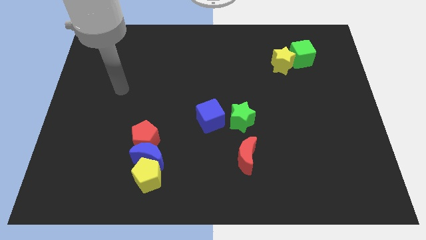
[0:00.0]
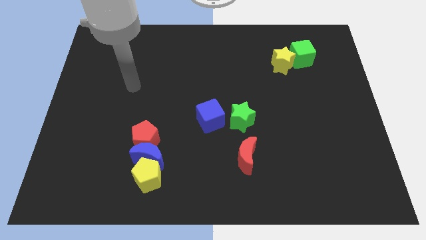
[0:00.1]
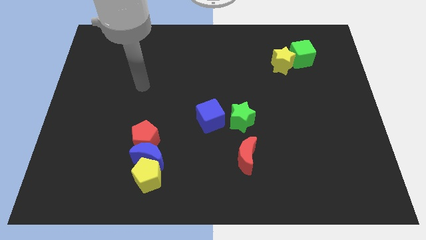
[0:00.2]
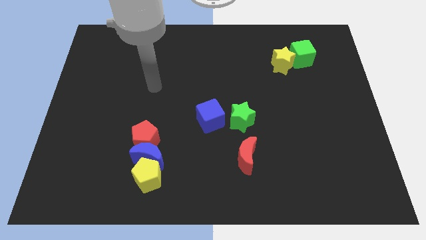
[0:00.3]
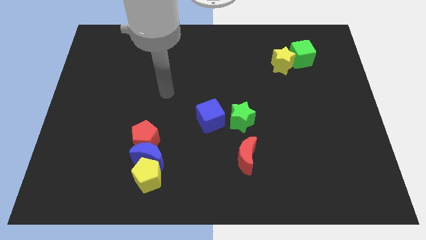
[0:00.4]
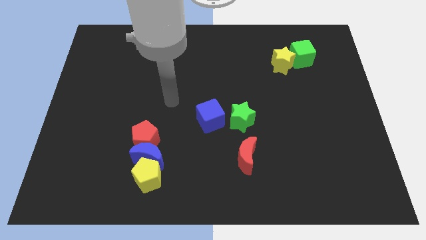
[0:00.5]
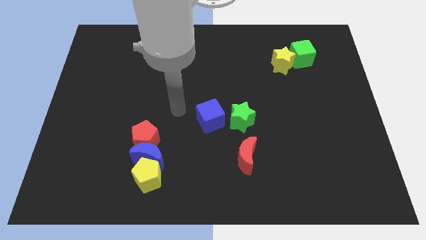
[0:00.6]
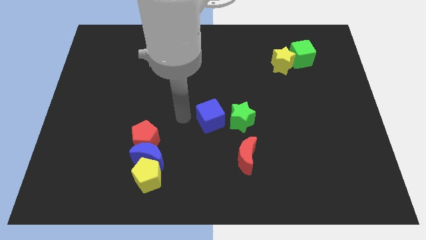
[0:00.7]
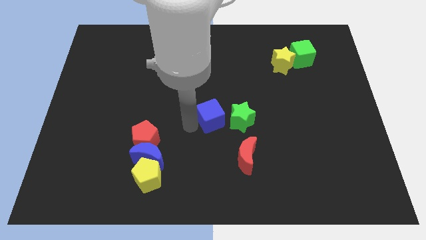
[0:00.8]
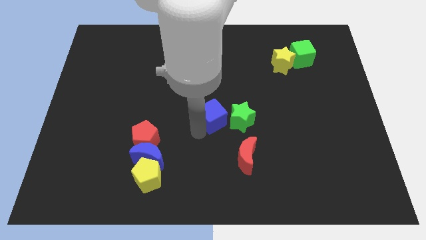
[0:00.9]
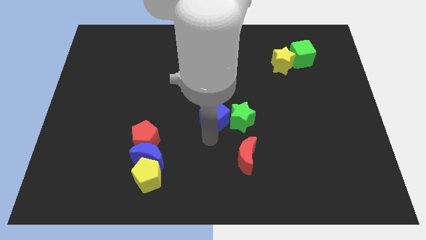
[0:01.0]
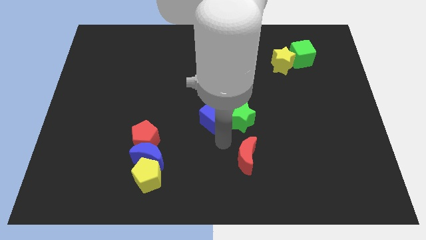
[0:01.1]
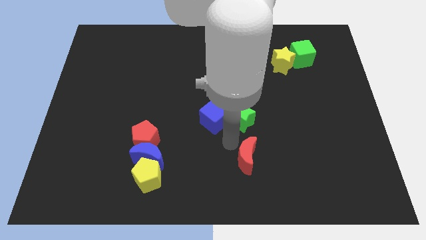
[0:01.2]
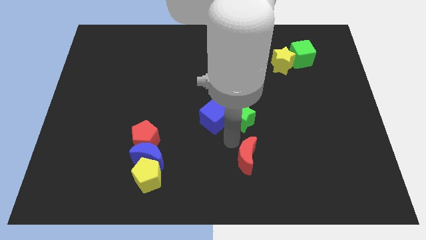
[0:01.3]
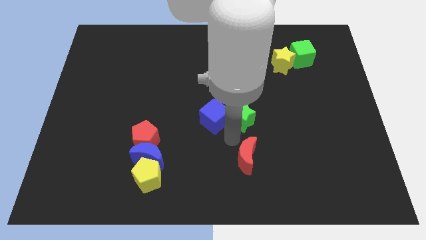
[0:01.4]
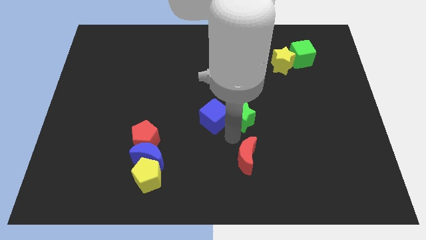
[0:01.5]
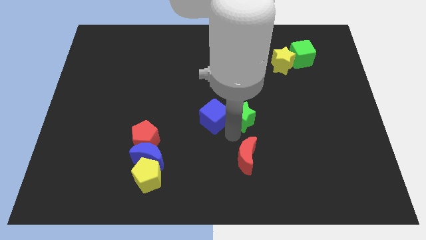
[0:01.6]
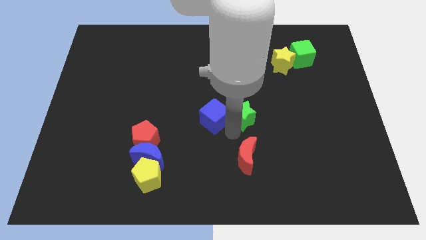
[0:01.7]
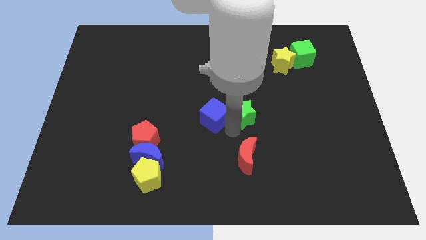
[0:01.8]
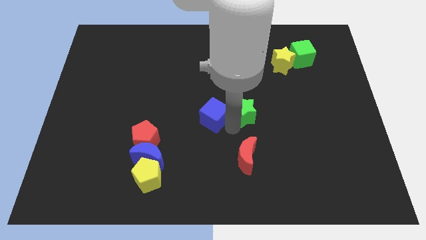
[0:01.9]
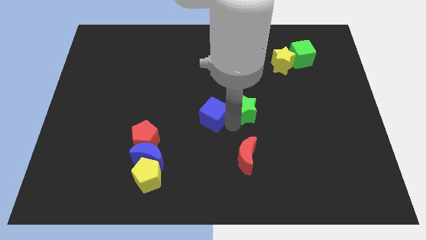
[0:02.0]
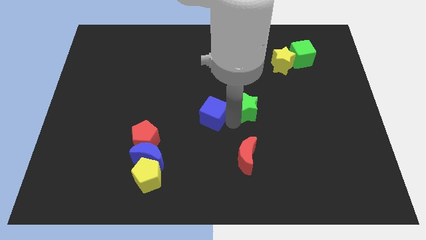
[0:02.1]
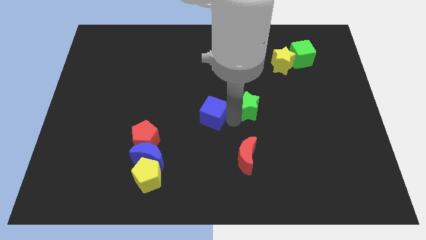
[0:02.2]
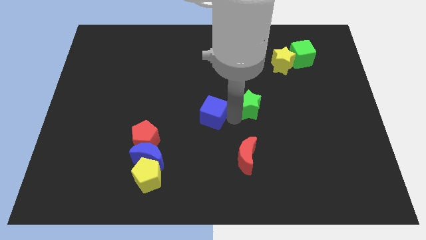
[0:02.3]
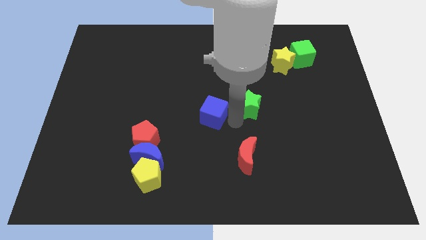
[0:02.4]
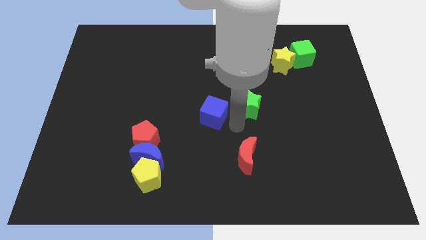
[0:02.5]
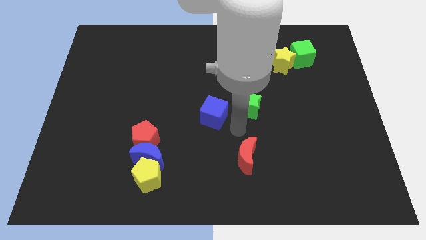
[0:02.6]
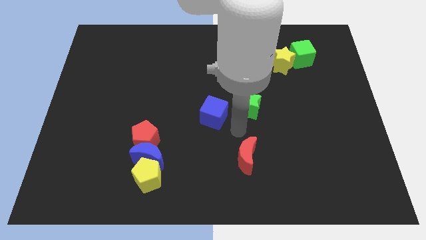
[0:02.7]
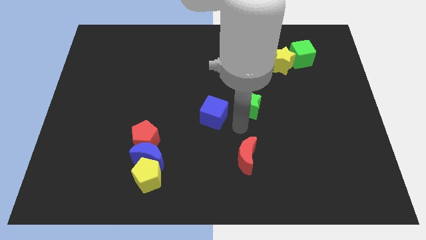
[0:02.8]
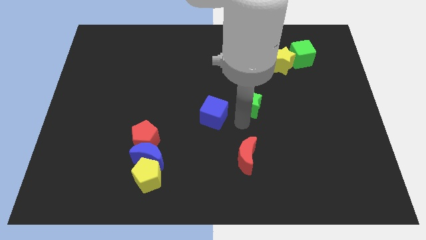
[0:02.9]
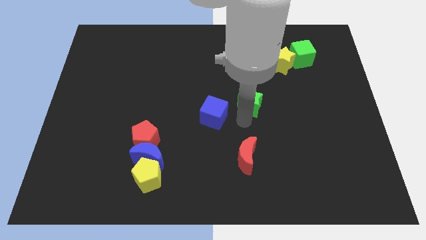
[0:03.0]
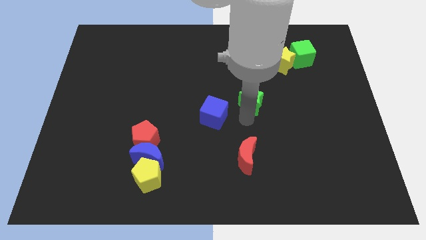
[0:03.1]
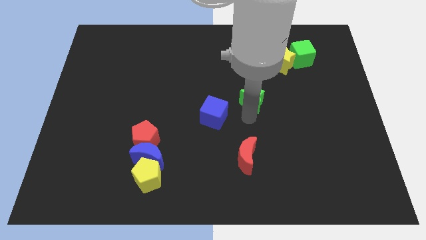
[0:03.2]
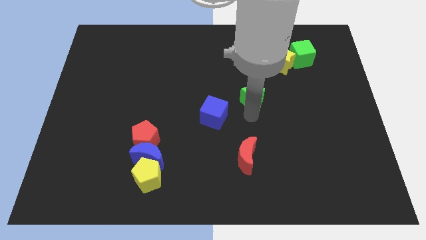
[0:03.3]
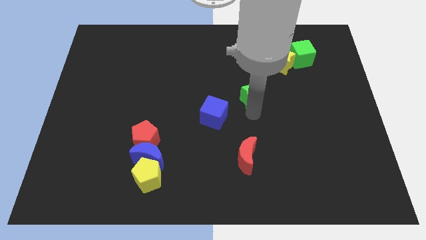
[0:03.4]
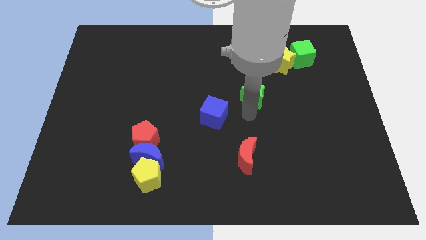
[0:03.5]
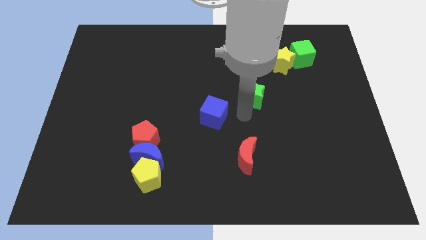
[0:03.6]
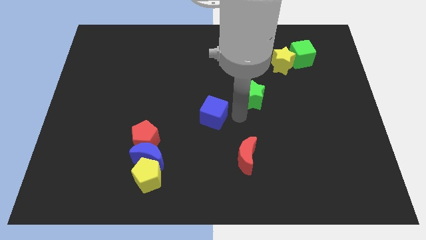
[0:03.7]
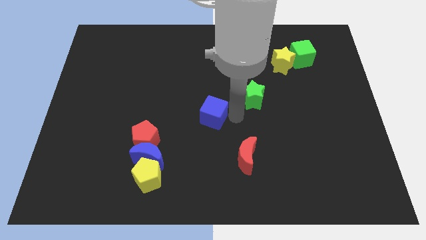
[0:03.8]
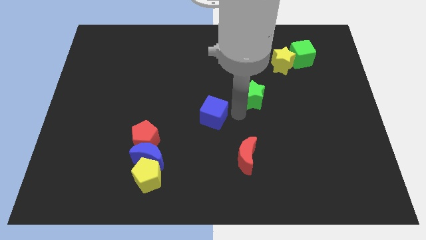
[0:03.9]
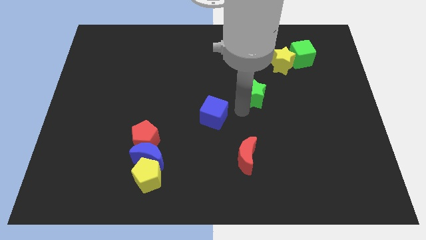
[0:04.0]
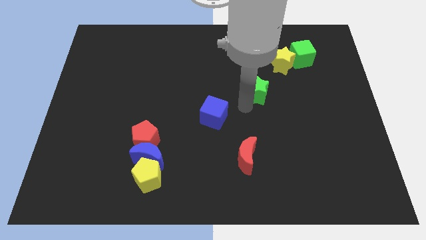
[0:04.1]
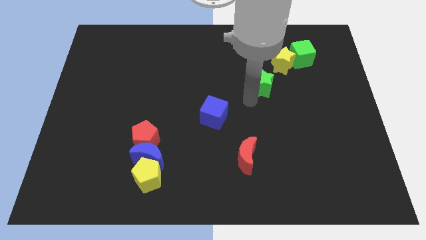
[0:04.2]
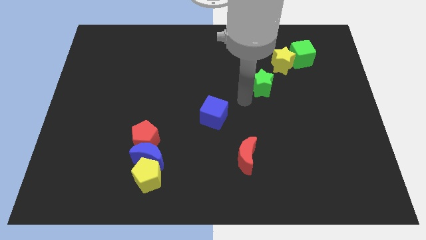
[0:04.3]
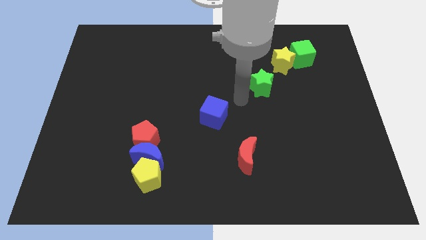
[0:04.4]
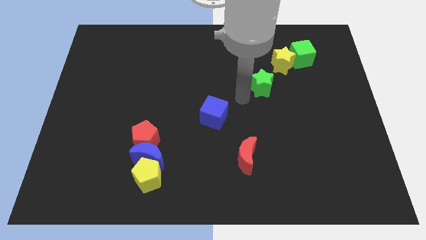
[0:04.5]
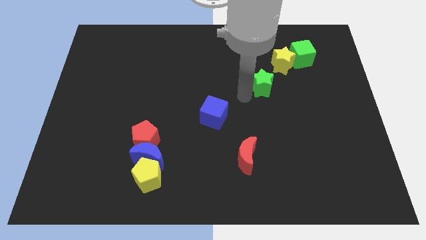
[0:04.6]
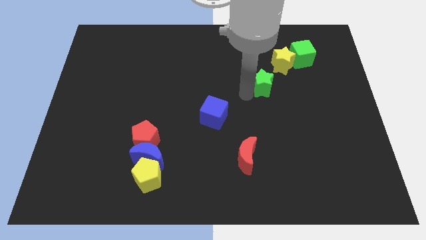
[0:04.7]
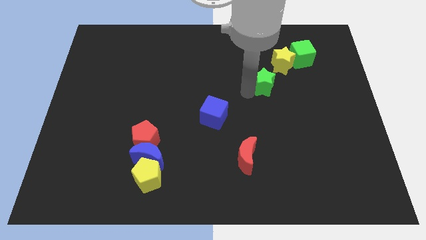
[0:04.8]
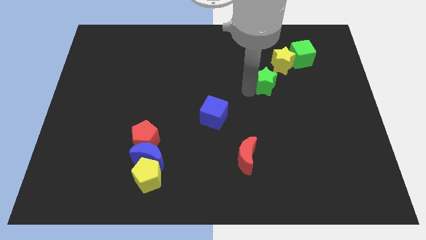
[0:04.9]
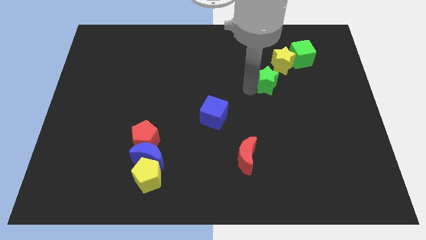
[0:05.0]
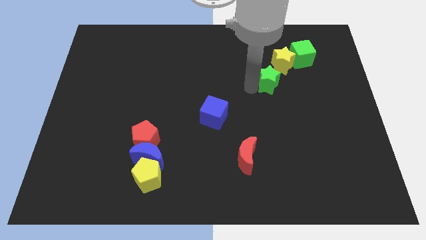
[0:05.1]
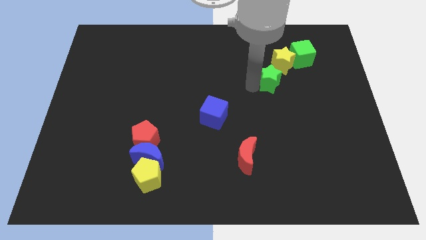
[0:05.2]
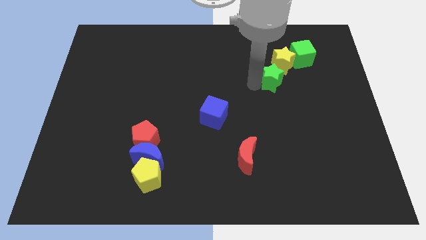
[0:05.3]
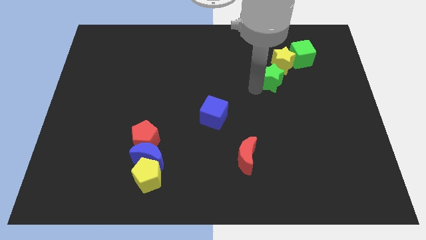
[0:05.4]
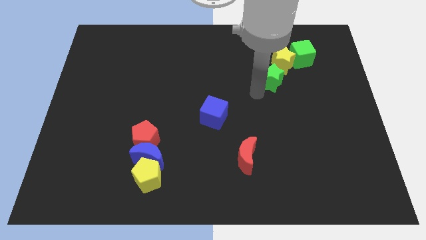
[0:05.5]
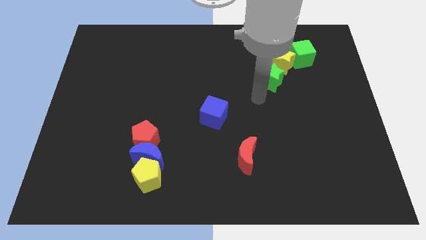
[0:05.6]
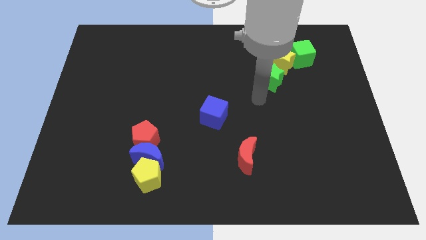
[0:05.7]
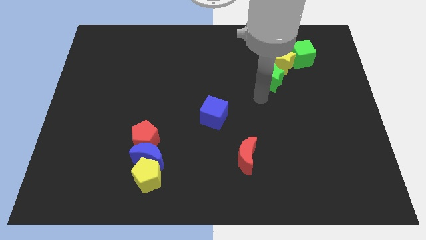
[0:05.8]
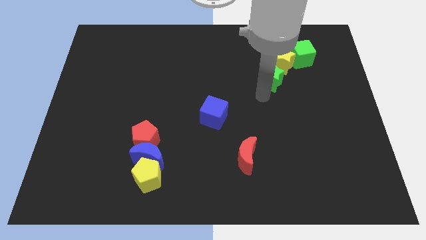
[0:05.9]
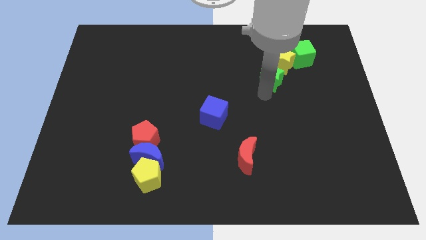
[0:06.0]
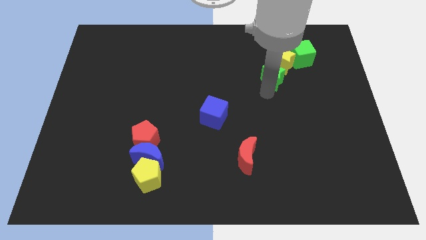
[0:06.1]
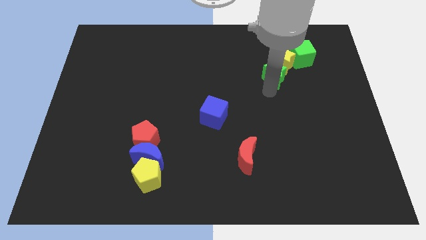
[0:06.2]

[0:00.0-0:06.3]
put the green star next to the yellow star

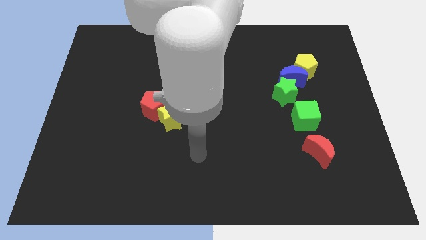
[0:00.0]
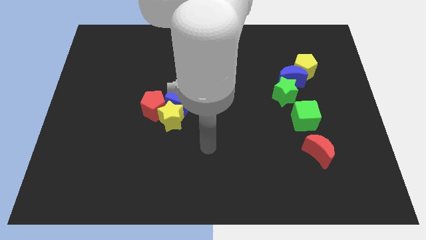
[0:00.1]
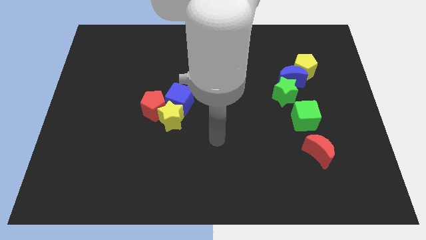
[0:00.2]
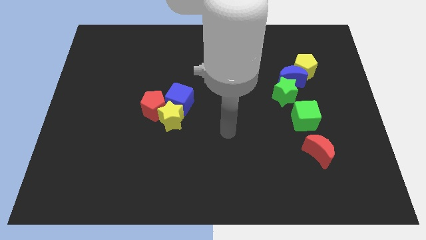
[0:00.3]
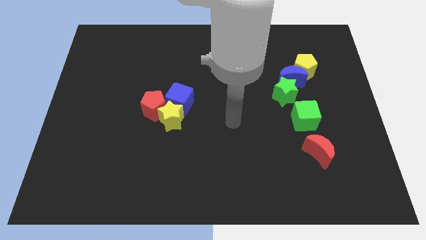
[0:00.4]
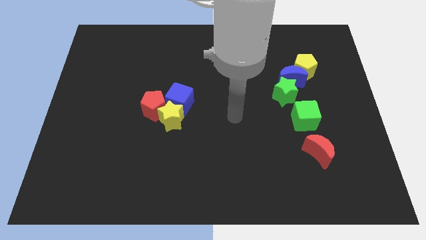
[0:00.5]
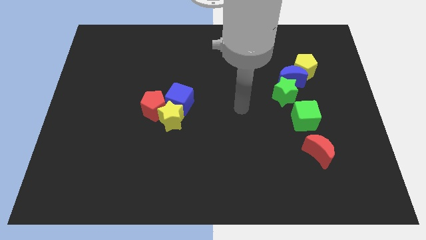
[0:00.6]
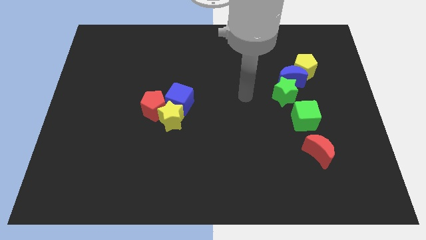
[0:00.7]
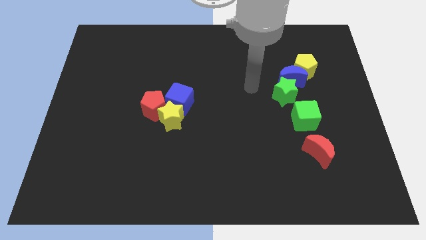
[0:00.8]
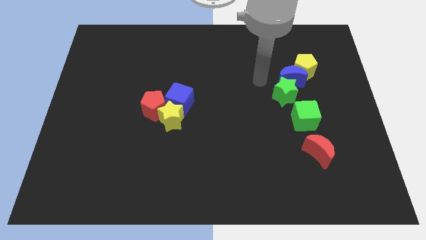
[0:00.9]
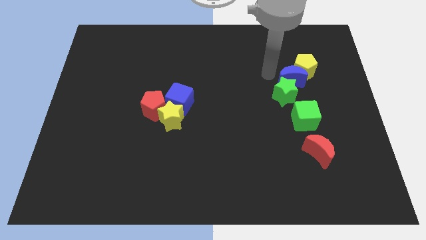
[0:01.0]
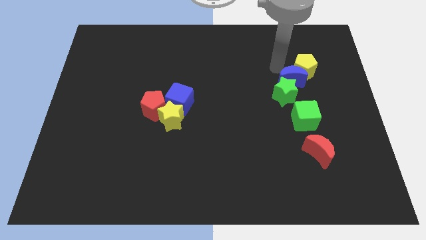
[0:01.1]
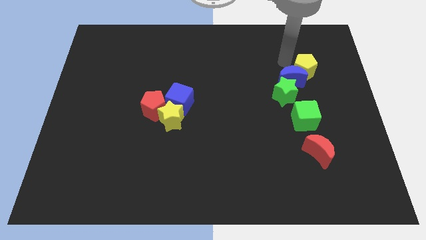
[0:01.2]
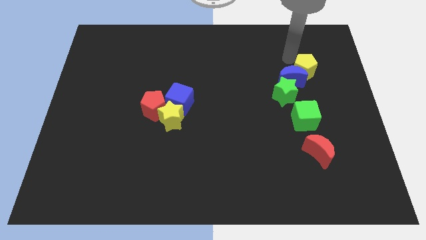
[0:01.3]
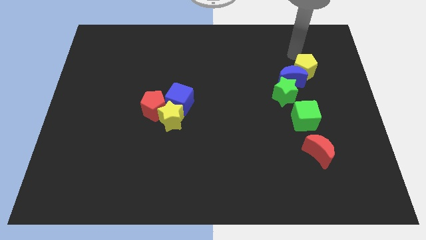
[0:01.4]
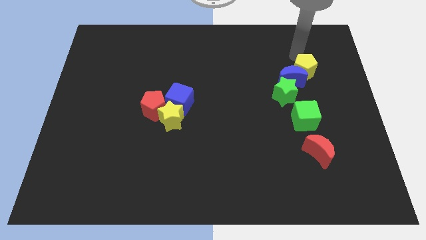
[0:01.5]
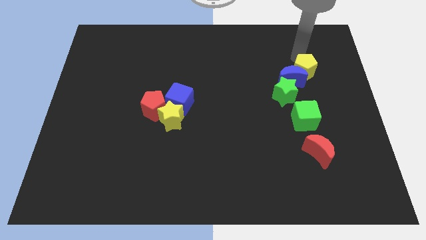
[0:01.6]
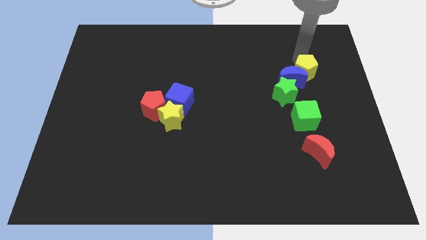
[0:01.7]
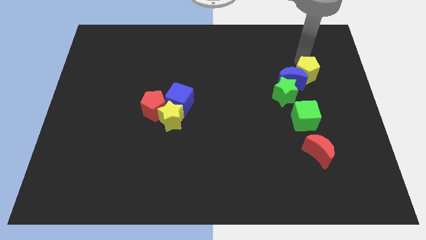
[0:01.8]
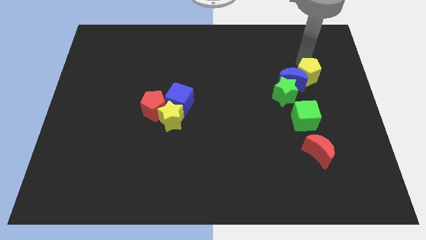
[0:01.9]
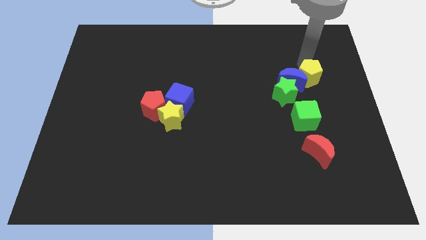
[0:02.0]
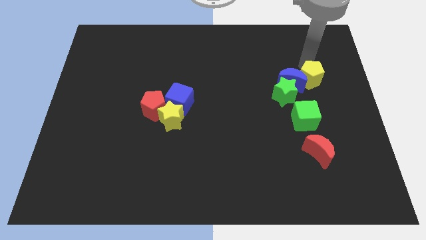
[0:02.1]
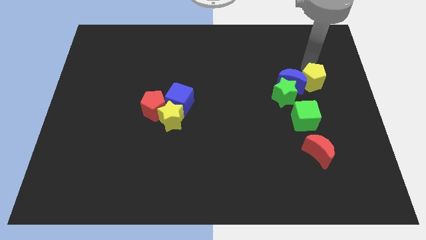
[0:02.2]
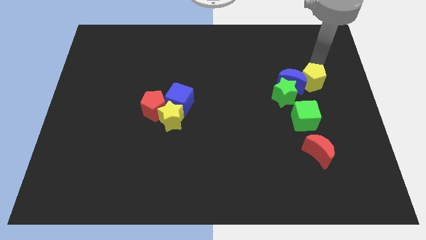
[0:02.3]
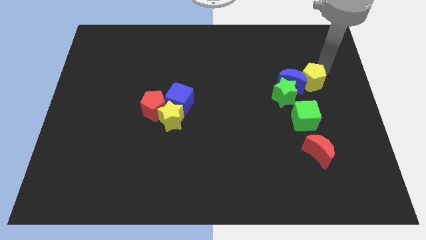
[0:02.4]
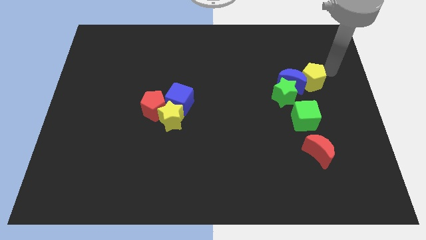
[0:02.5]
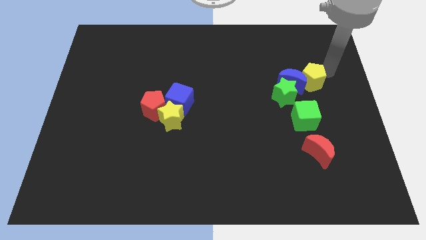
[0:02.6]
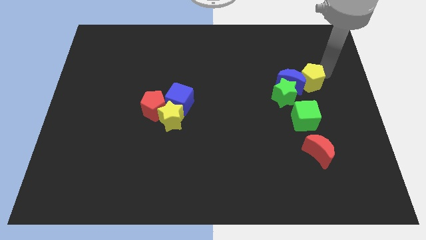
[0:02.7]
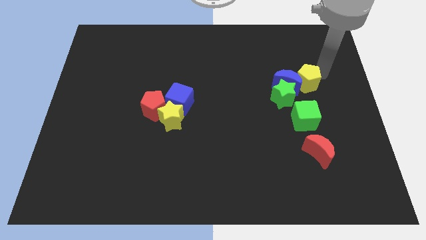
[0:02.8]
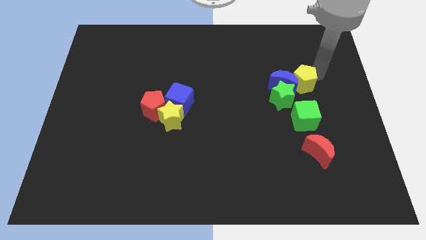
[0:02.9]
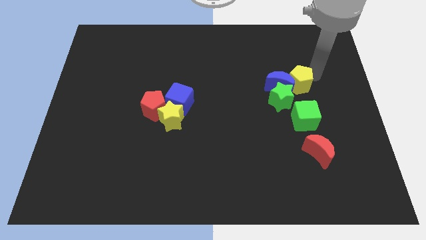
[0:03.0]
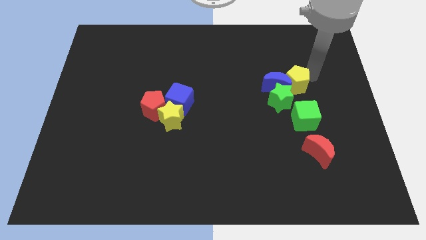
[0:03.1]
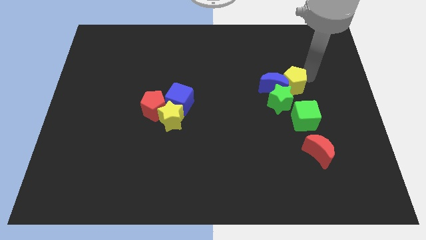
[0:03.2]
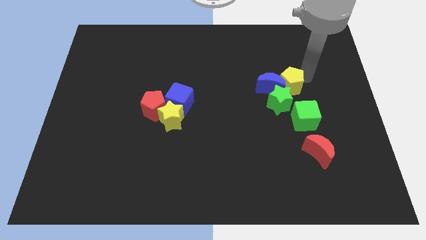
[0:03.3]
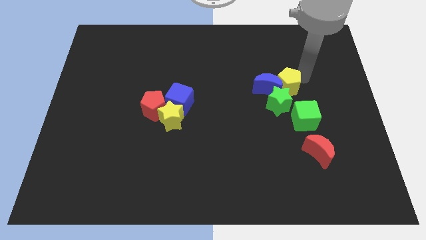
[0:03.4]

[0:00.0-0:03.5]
slide the yellow pentagon towards the green star
